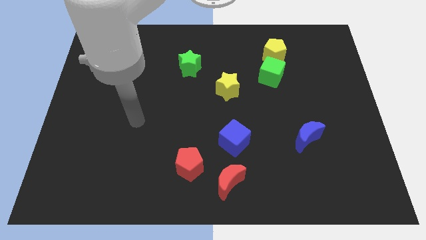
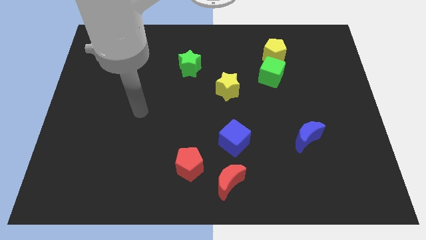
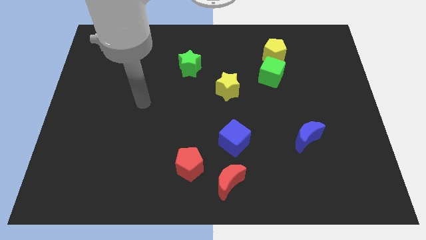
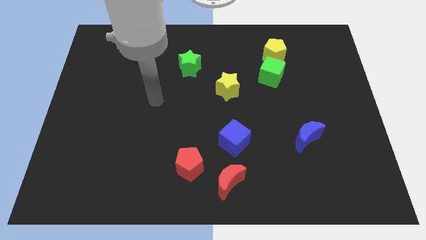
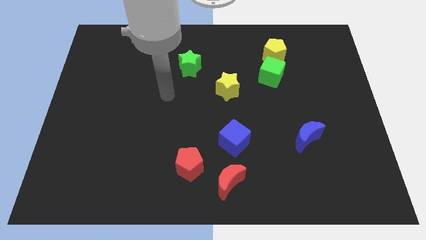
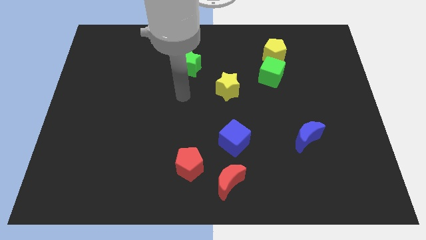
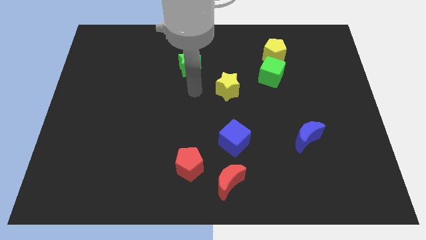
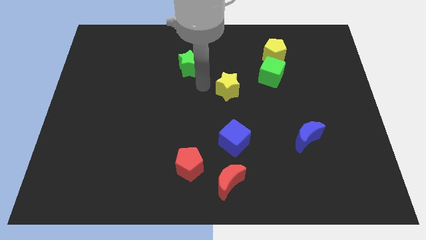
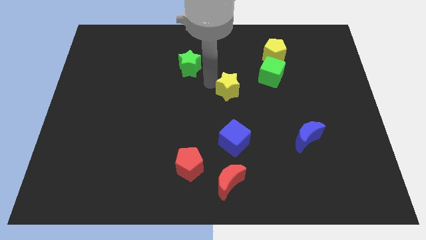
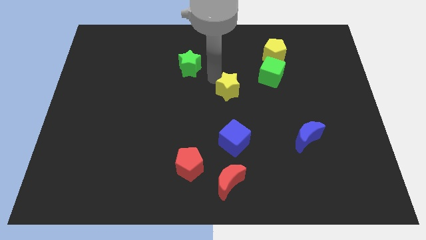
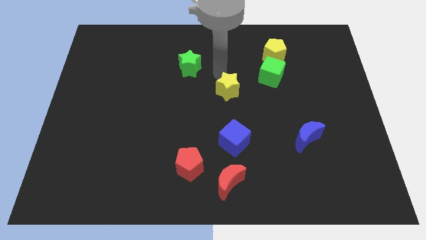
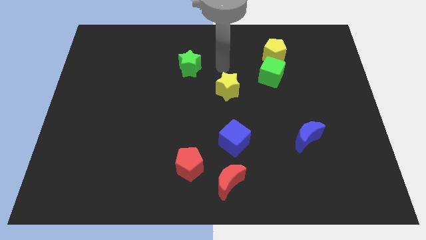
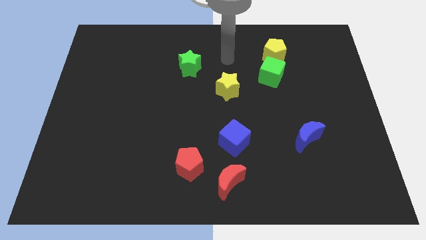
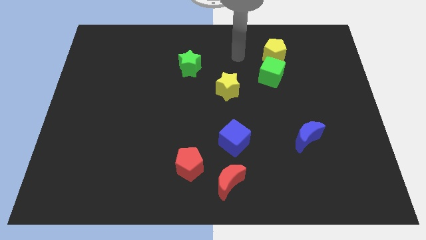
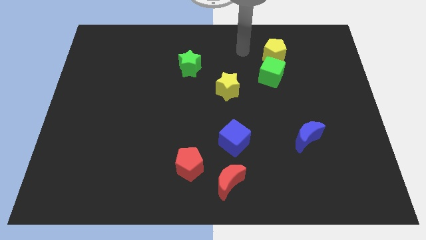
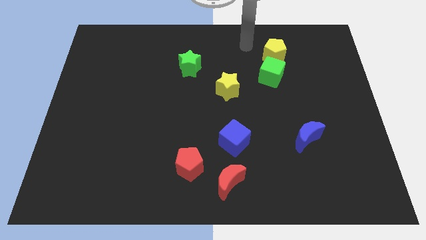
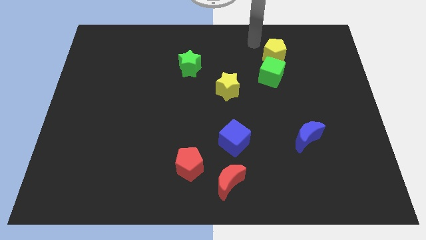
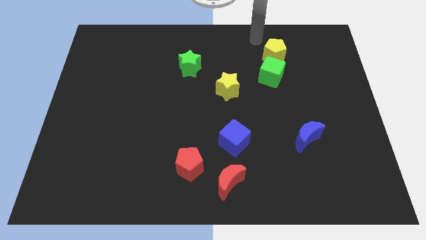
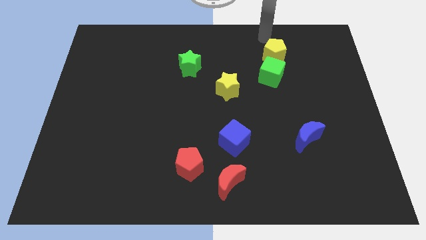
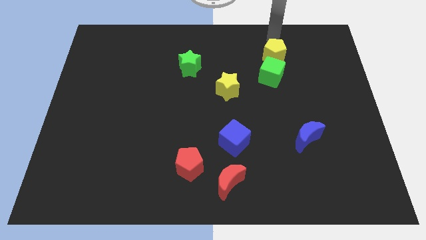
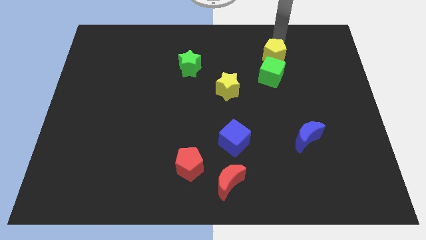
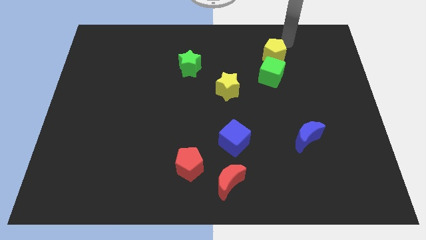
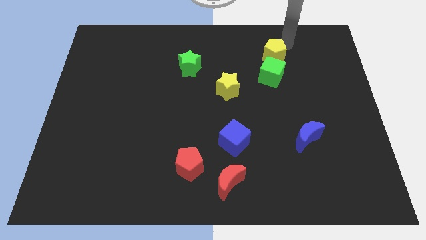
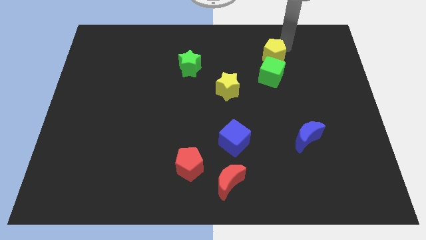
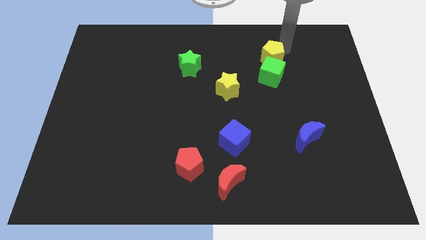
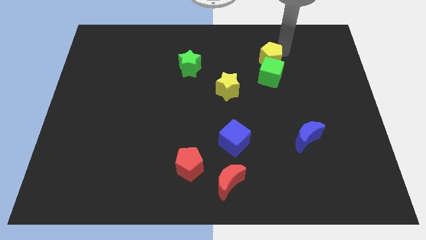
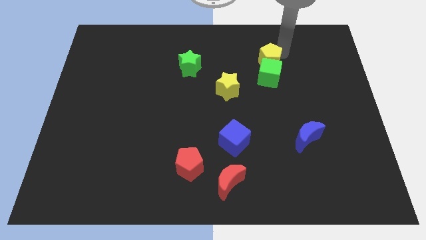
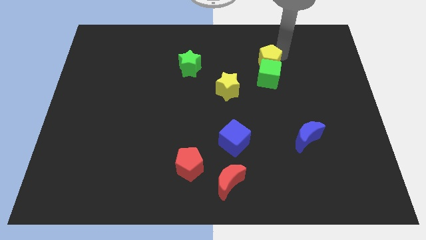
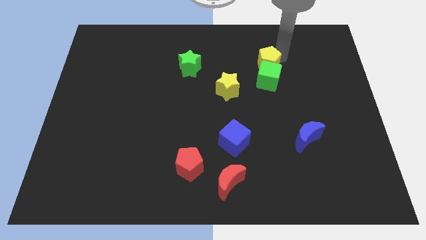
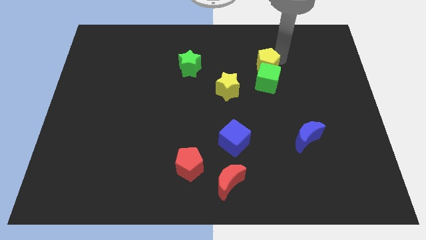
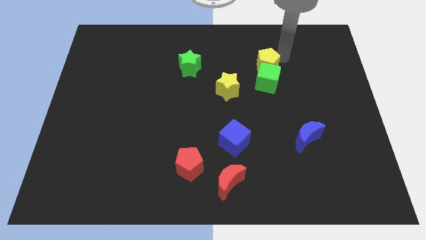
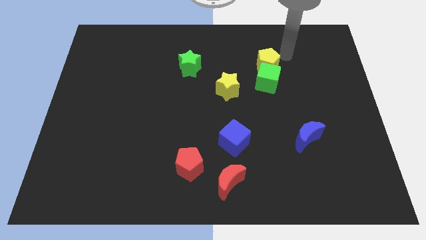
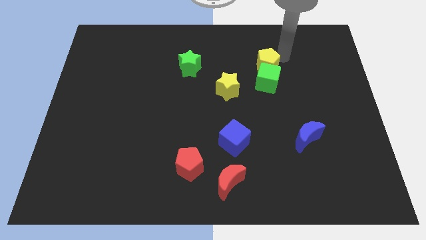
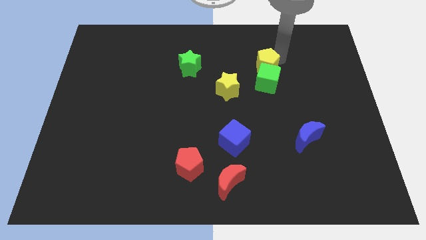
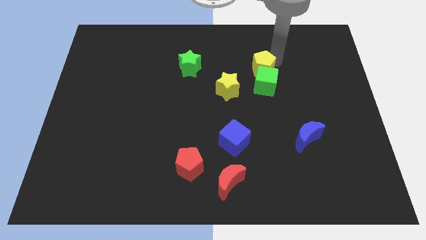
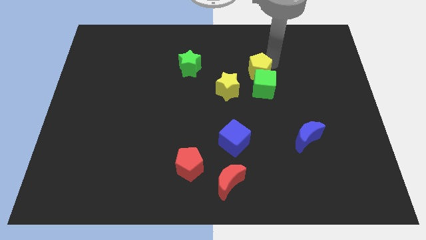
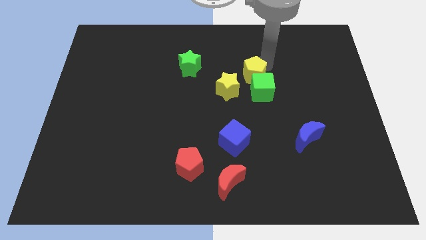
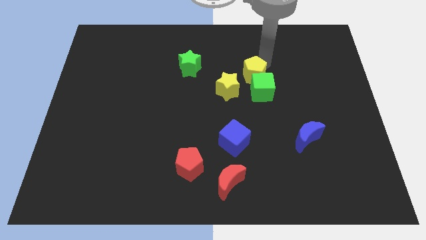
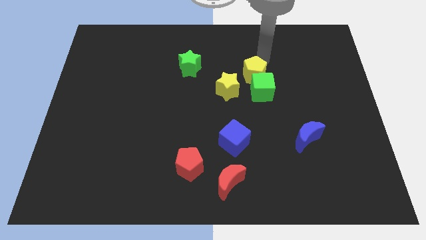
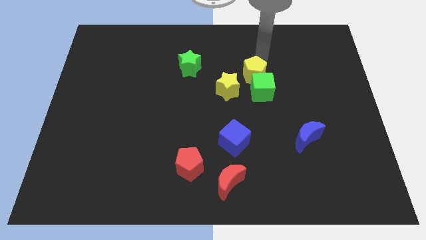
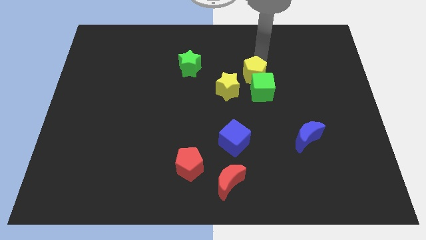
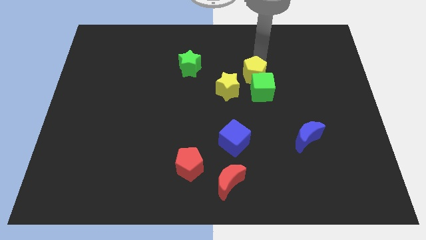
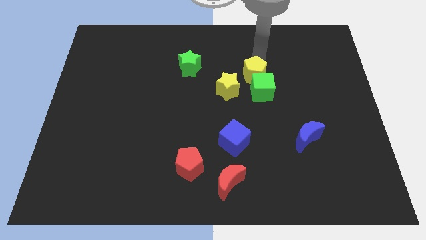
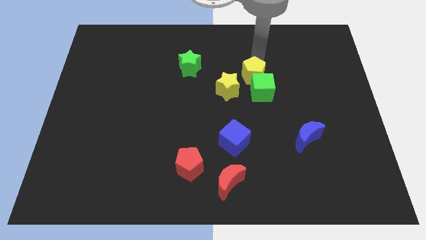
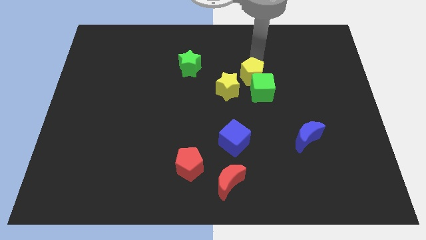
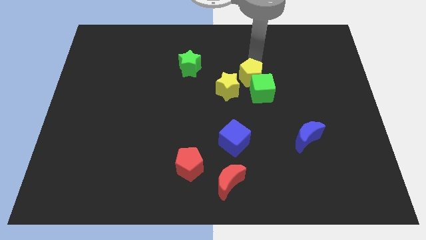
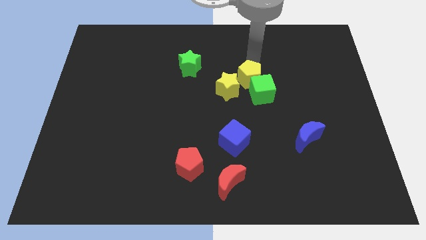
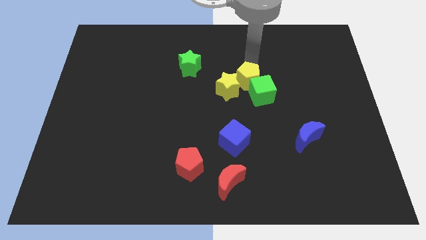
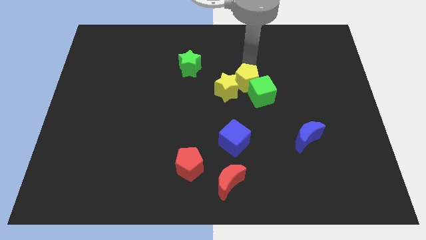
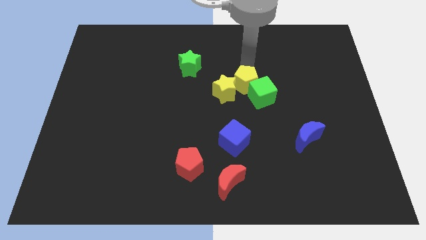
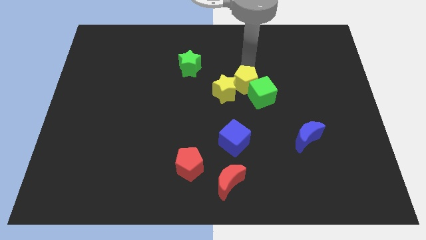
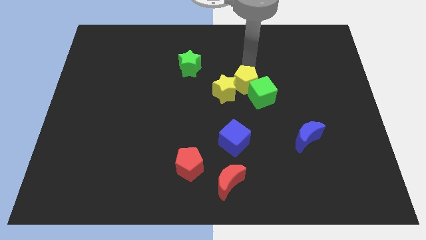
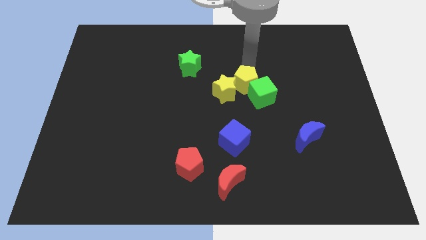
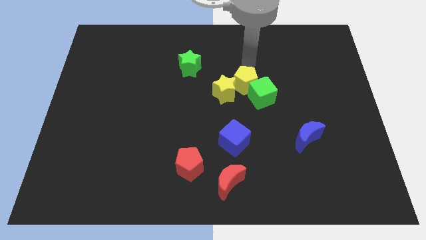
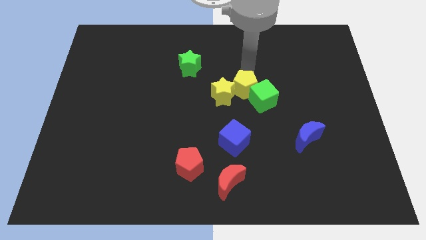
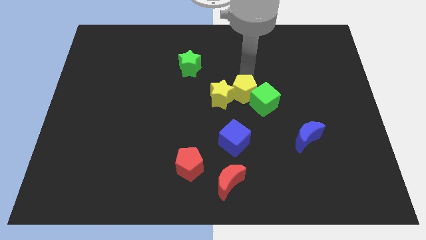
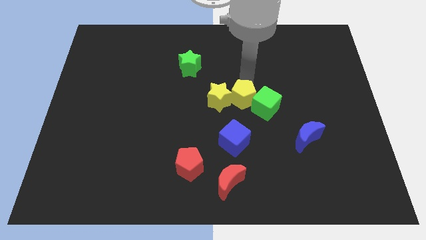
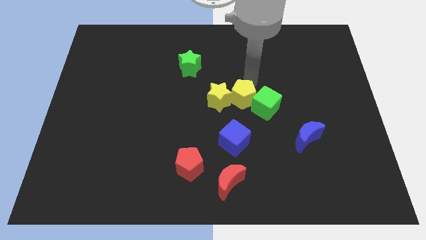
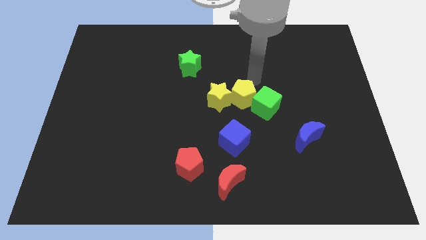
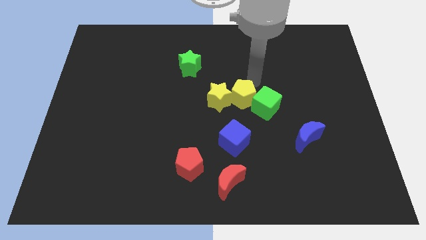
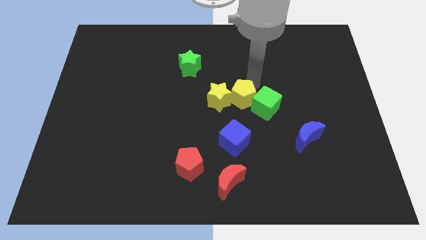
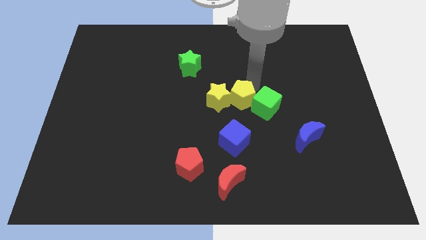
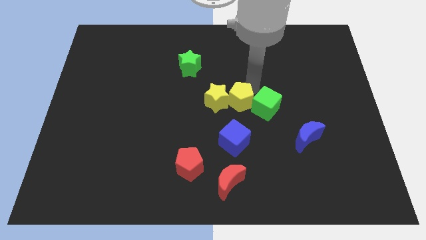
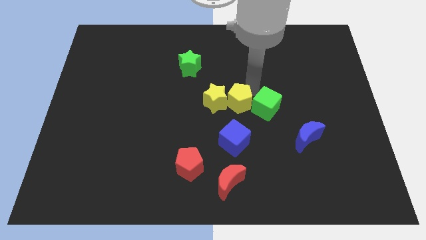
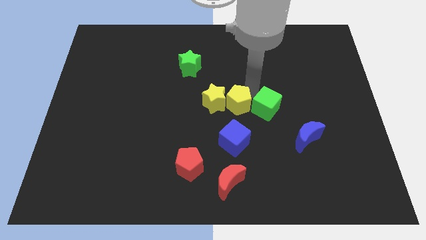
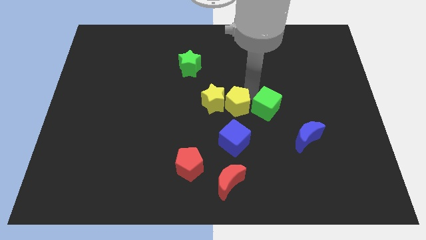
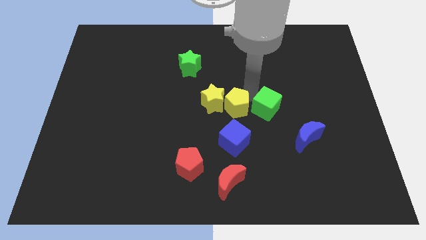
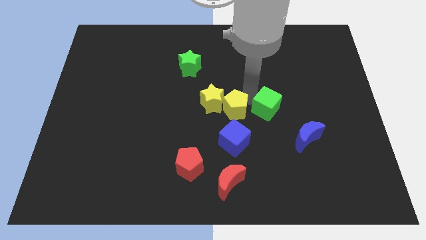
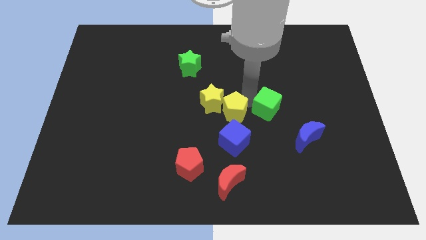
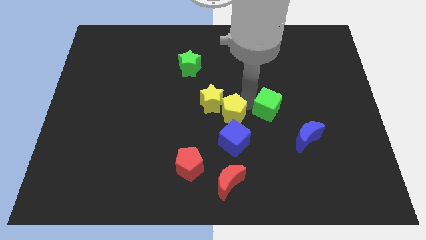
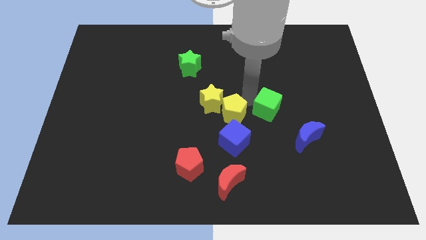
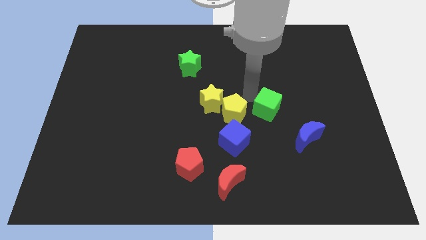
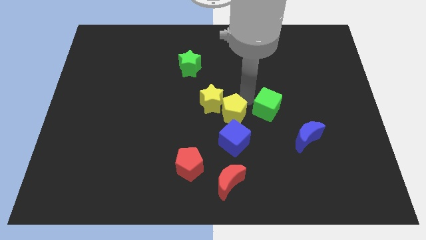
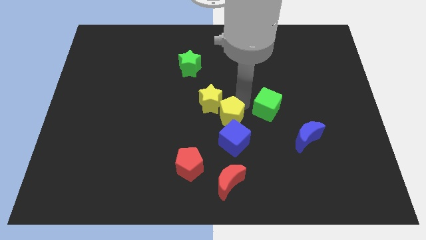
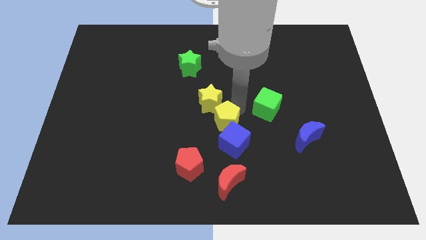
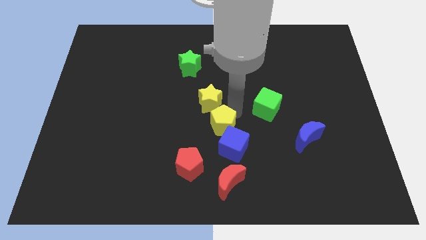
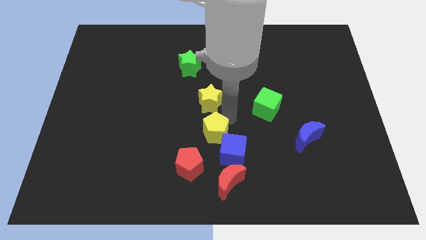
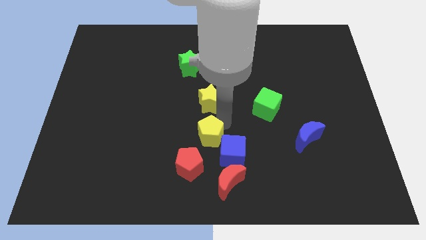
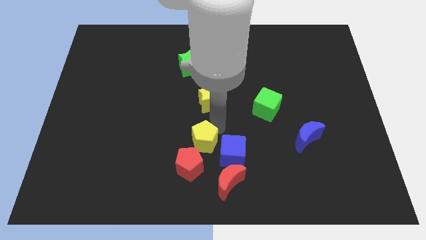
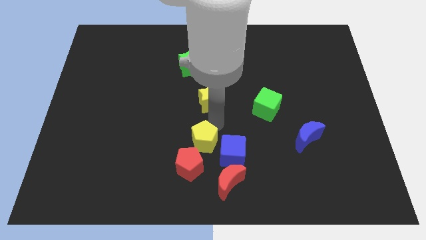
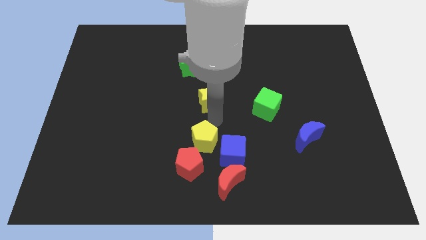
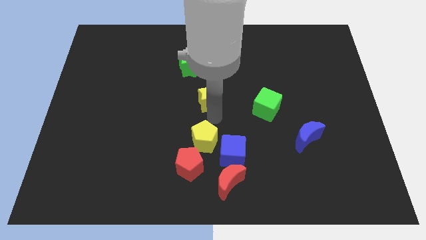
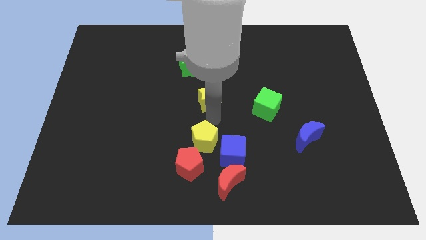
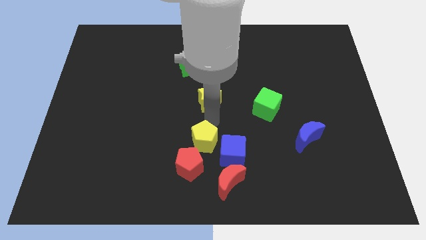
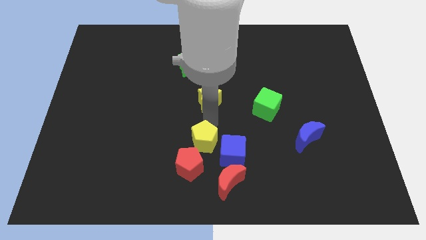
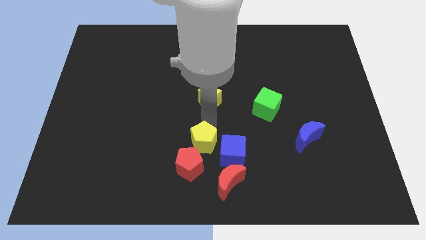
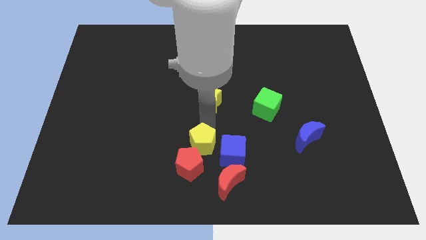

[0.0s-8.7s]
put the yellow pentagon to the red pentagon
